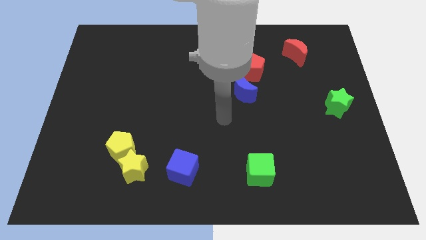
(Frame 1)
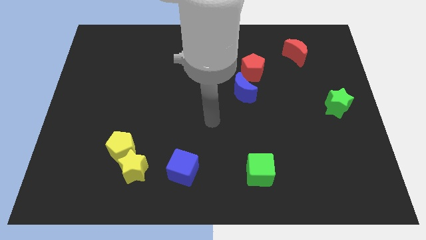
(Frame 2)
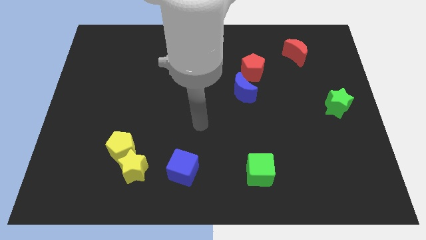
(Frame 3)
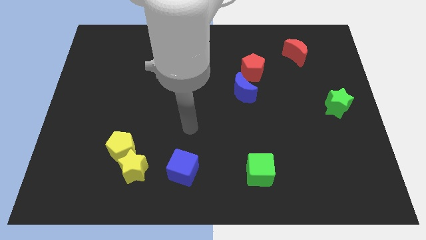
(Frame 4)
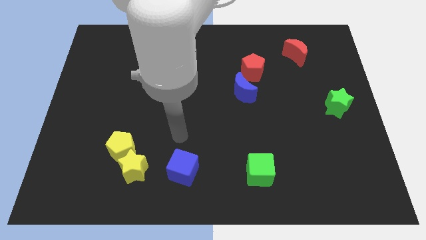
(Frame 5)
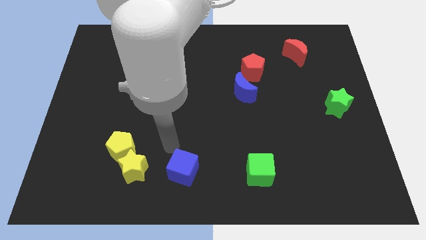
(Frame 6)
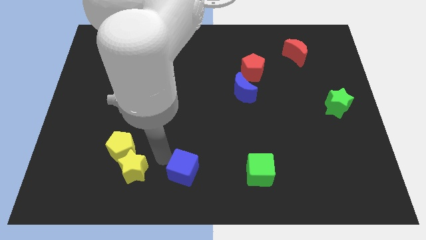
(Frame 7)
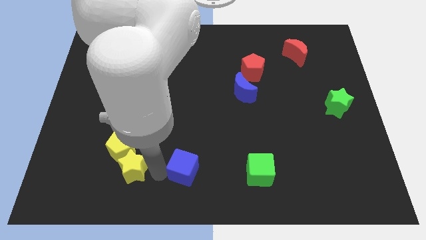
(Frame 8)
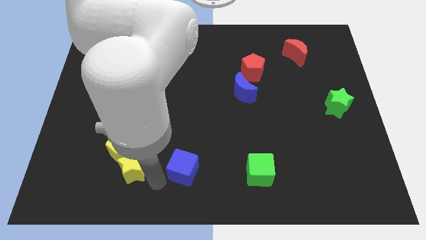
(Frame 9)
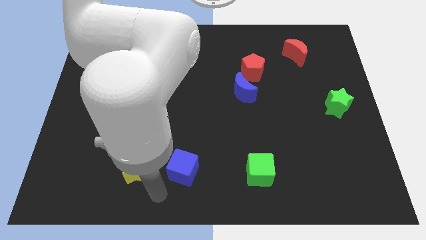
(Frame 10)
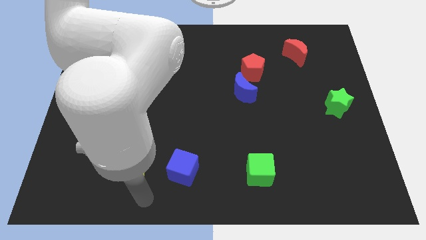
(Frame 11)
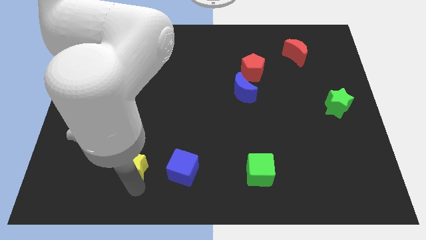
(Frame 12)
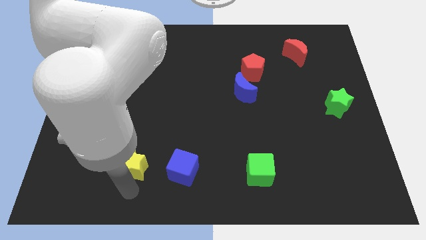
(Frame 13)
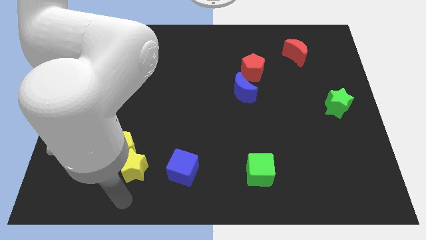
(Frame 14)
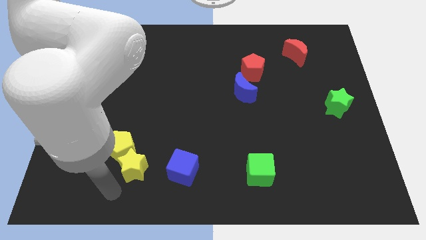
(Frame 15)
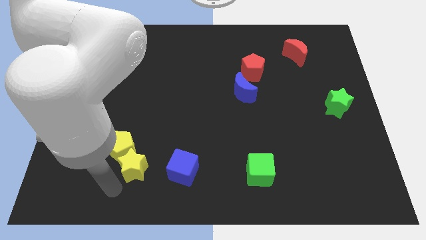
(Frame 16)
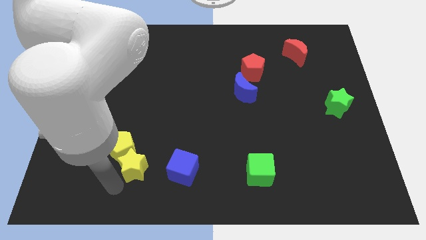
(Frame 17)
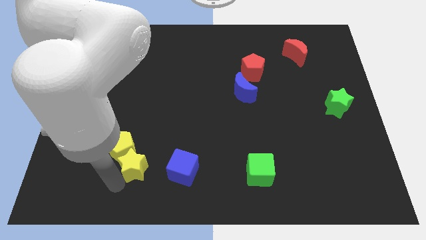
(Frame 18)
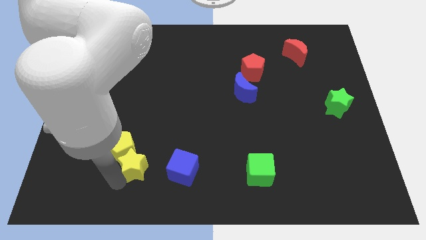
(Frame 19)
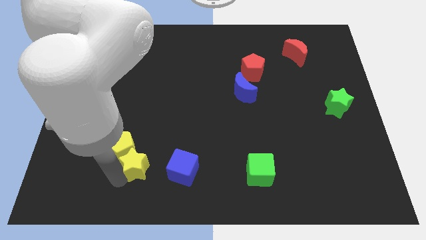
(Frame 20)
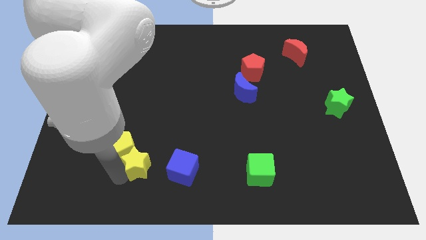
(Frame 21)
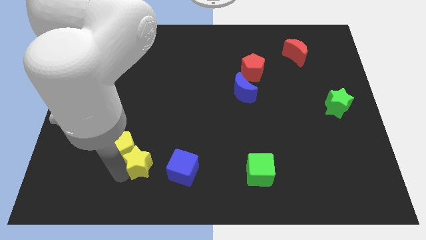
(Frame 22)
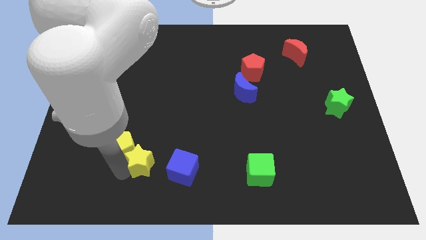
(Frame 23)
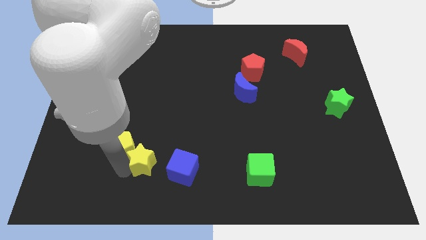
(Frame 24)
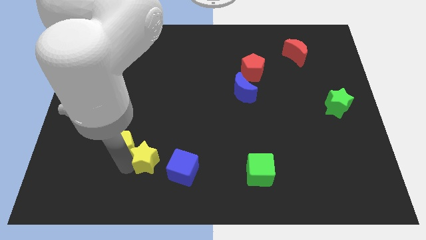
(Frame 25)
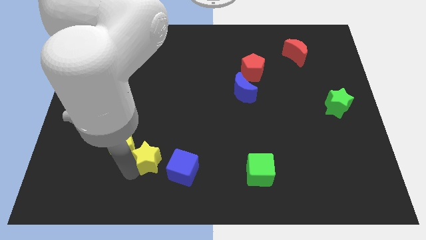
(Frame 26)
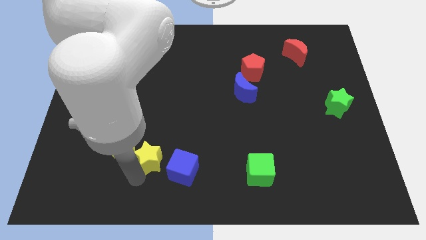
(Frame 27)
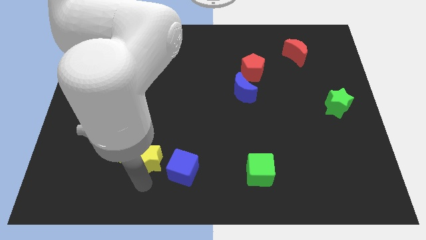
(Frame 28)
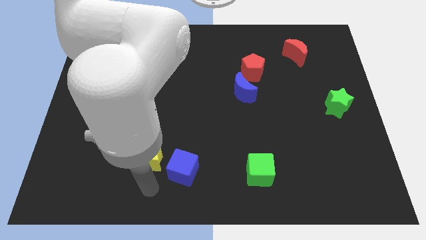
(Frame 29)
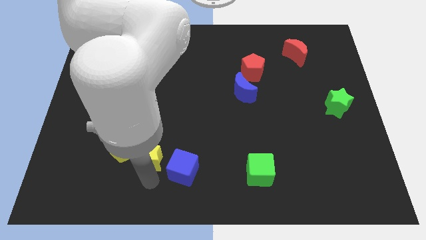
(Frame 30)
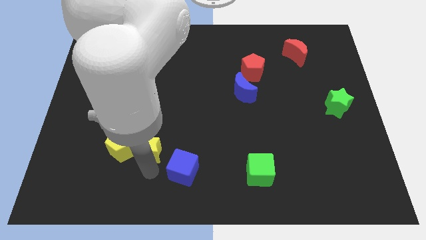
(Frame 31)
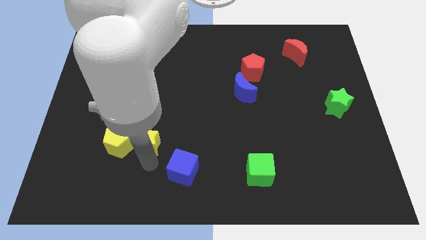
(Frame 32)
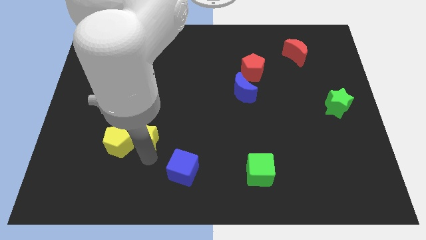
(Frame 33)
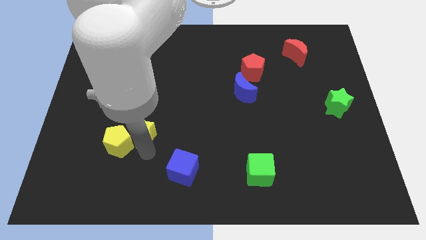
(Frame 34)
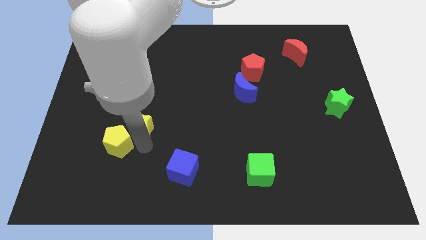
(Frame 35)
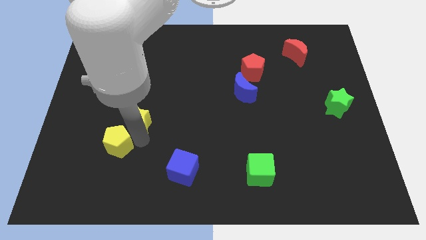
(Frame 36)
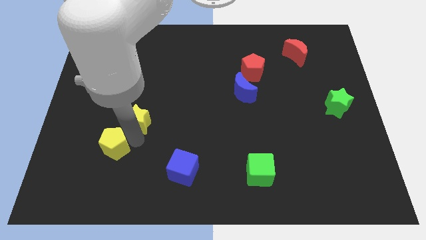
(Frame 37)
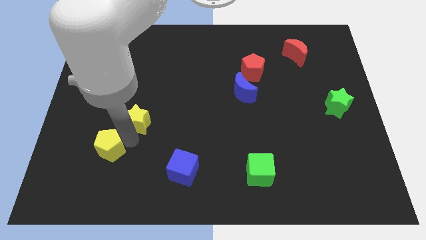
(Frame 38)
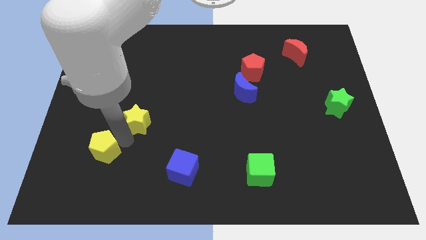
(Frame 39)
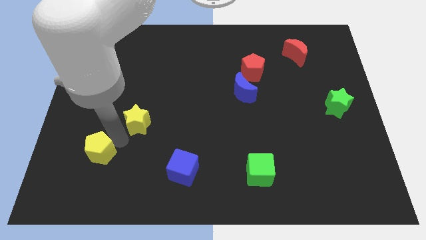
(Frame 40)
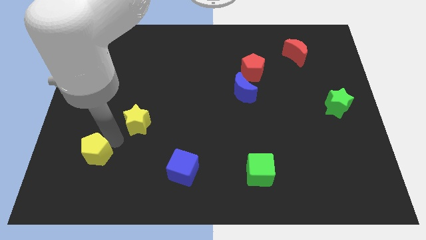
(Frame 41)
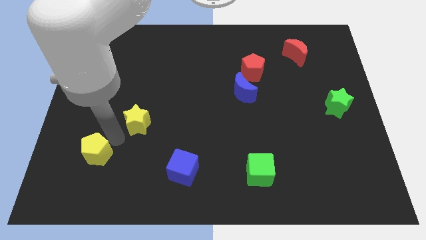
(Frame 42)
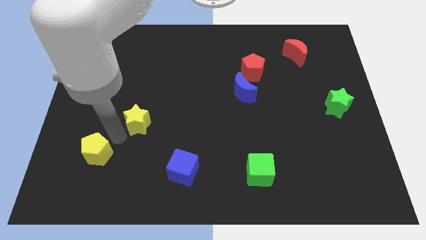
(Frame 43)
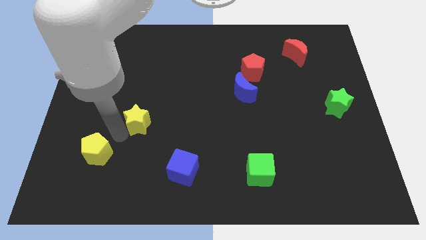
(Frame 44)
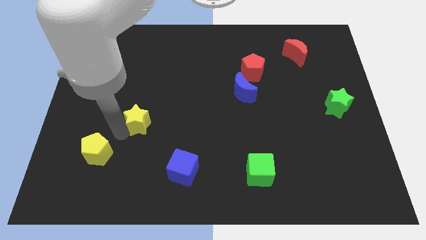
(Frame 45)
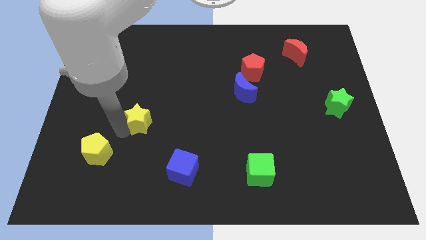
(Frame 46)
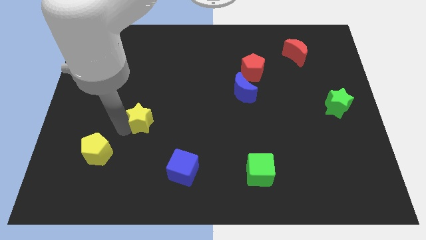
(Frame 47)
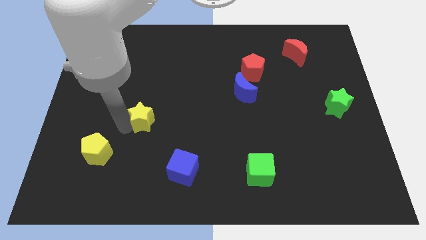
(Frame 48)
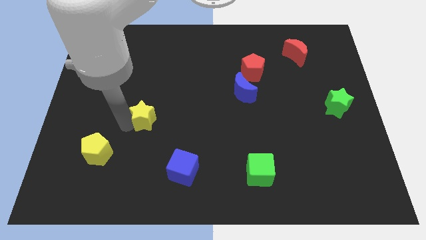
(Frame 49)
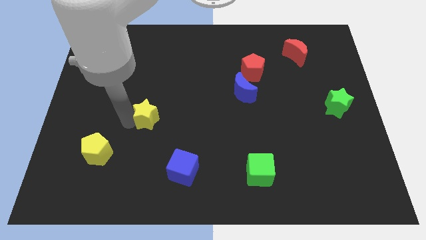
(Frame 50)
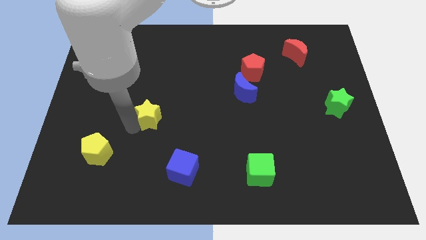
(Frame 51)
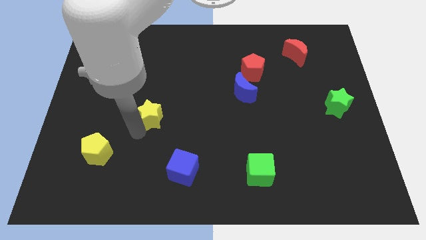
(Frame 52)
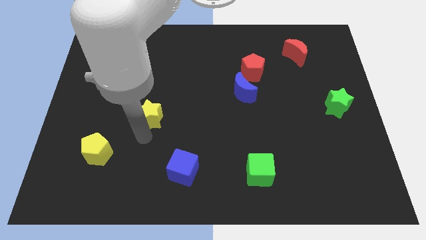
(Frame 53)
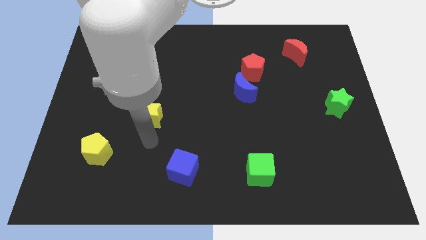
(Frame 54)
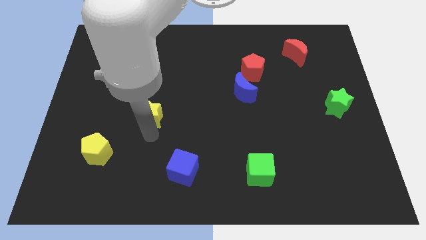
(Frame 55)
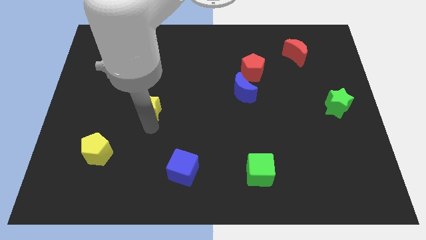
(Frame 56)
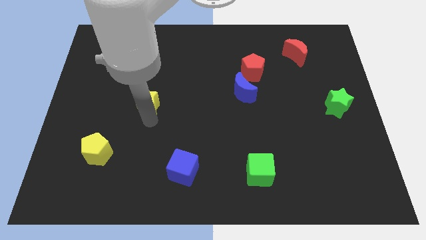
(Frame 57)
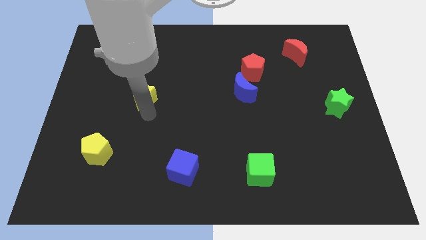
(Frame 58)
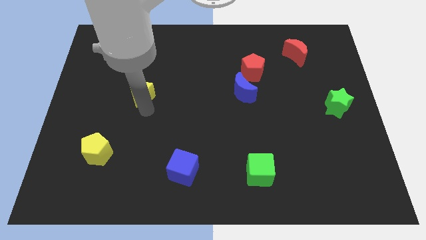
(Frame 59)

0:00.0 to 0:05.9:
move the yellow star upwards

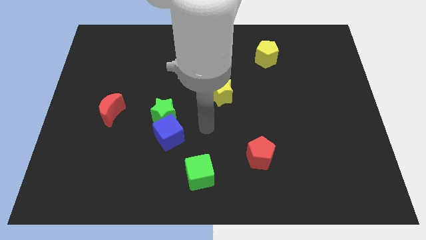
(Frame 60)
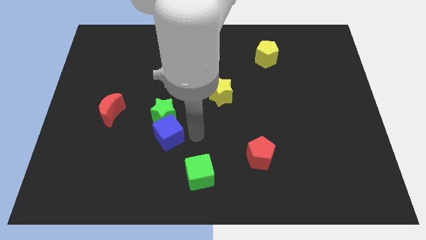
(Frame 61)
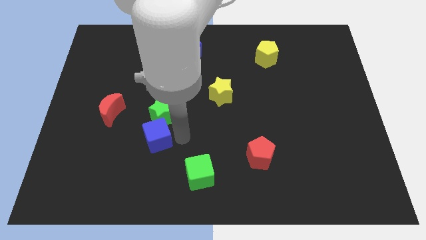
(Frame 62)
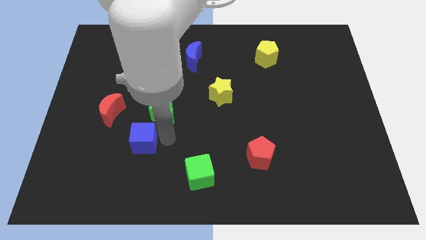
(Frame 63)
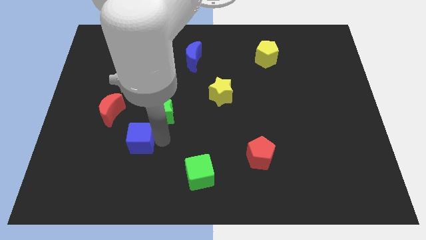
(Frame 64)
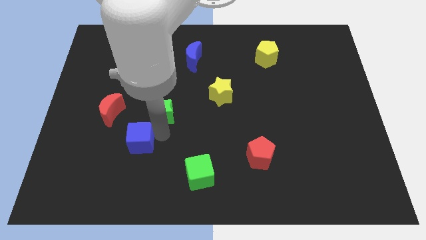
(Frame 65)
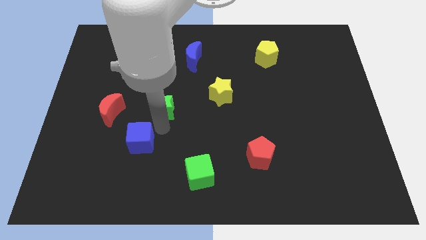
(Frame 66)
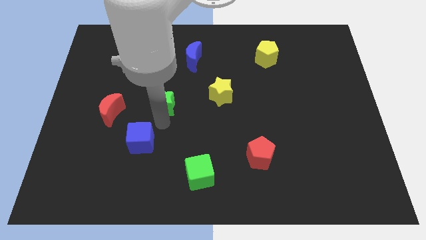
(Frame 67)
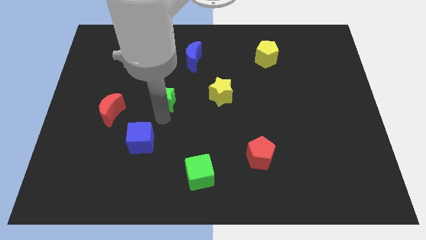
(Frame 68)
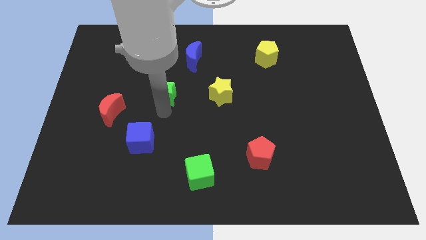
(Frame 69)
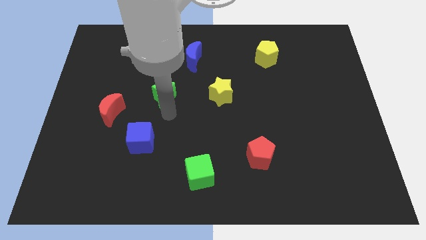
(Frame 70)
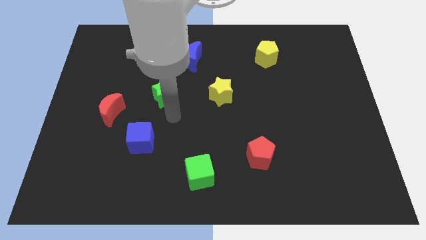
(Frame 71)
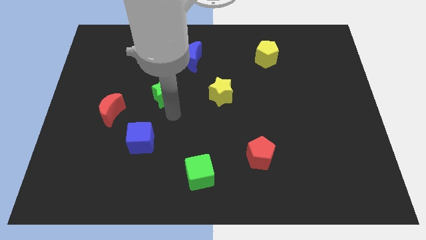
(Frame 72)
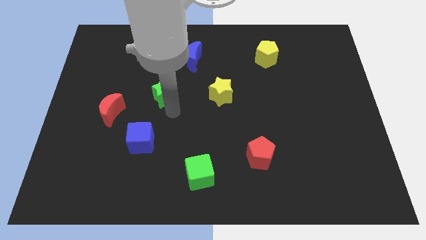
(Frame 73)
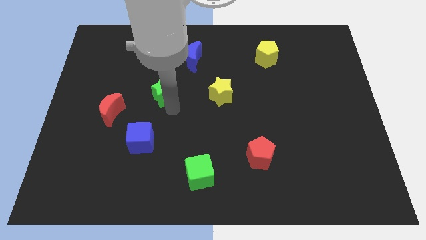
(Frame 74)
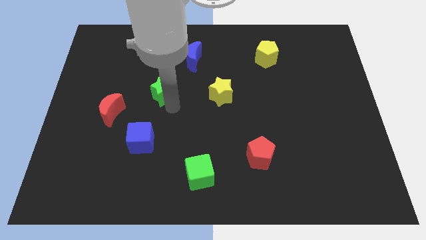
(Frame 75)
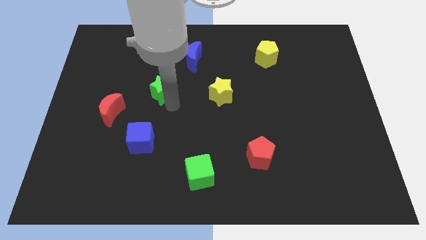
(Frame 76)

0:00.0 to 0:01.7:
slide the green star upwards slightly

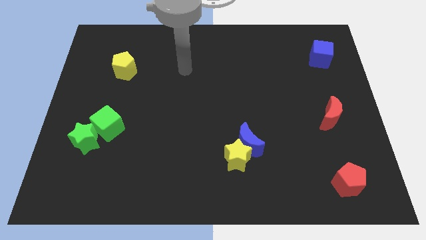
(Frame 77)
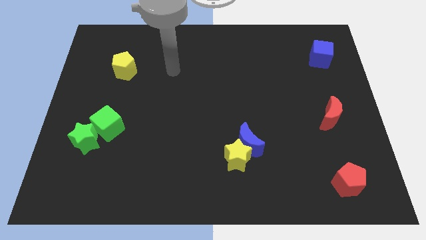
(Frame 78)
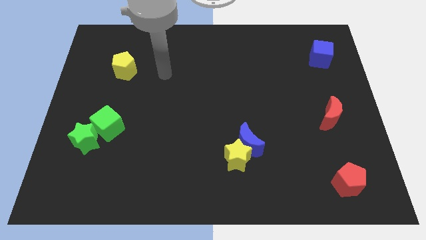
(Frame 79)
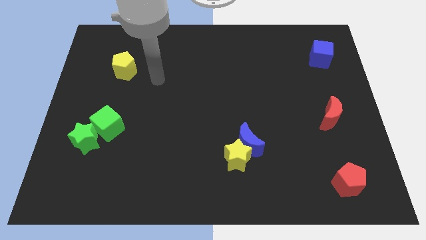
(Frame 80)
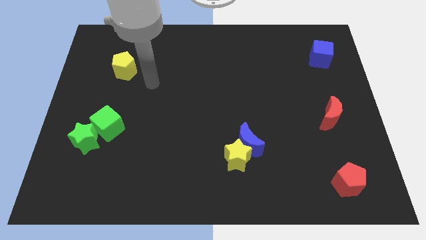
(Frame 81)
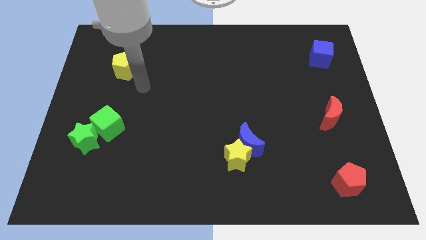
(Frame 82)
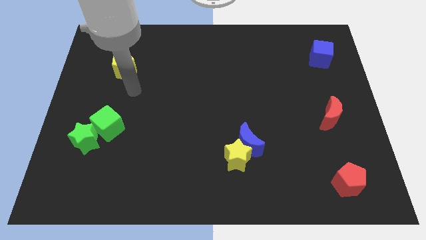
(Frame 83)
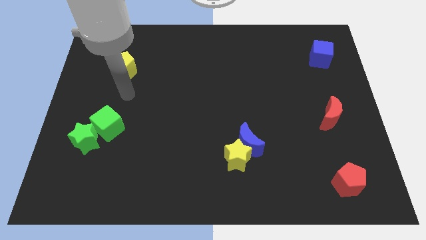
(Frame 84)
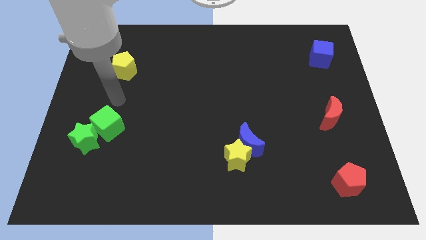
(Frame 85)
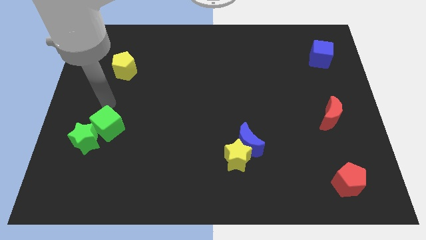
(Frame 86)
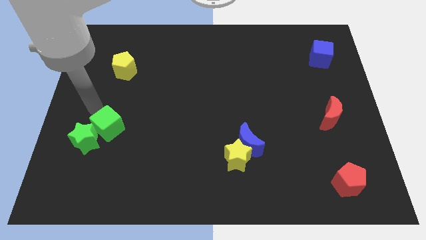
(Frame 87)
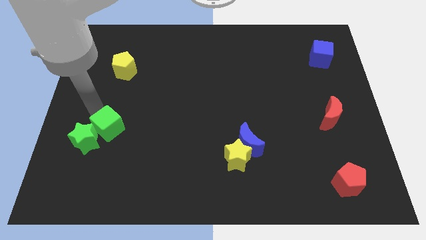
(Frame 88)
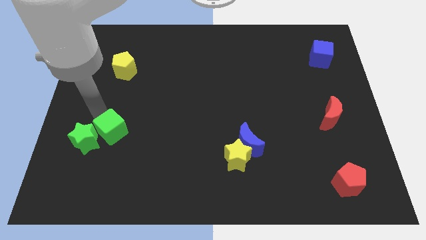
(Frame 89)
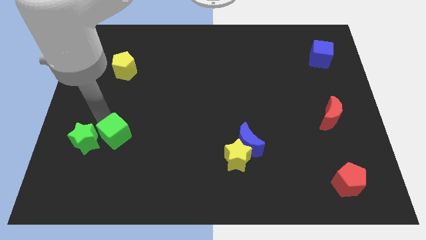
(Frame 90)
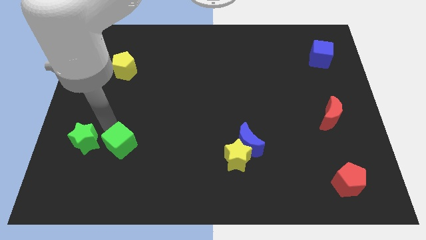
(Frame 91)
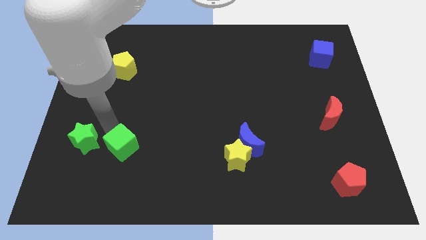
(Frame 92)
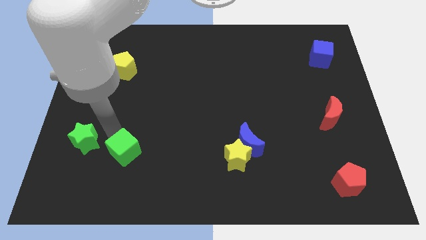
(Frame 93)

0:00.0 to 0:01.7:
slightly push the green cube down and right diagonally
